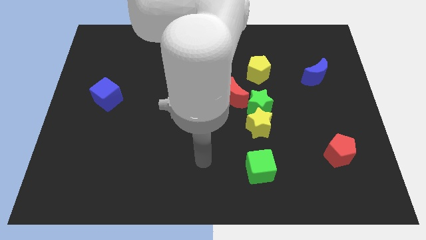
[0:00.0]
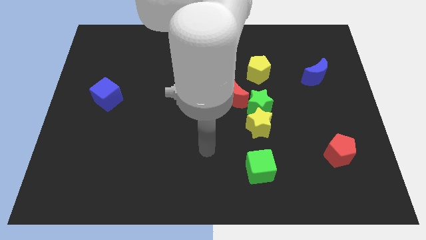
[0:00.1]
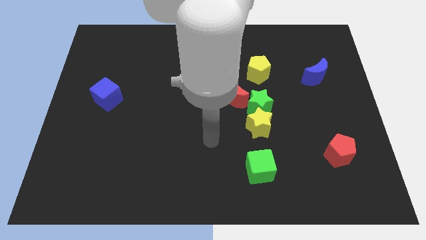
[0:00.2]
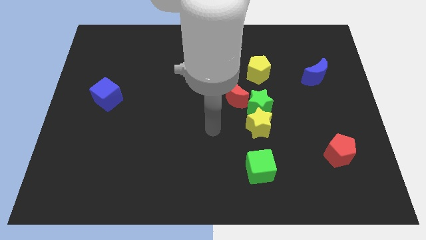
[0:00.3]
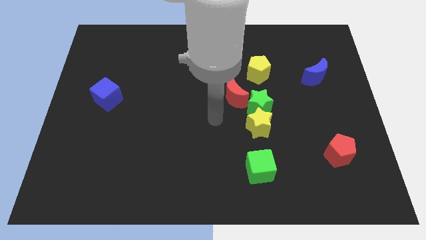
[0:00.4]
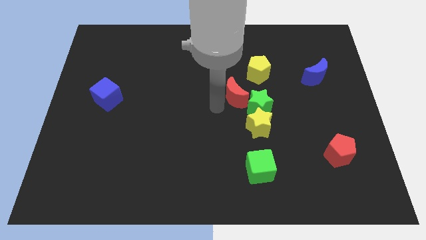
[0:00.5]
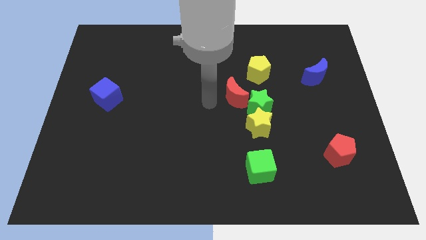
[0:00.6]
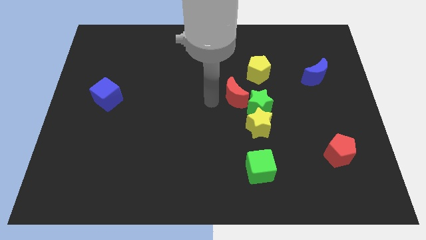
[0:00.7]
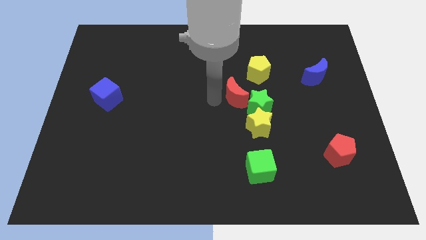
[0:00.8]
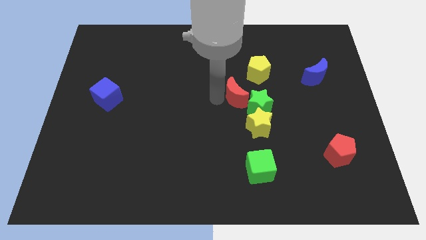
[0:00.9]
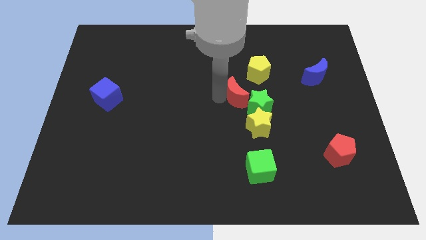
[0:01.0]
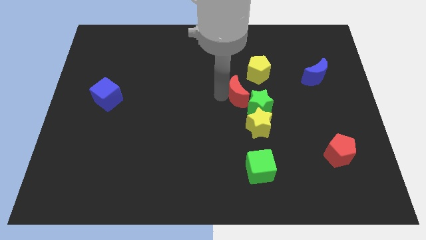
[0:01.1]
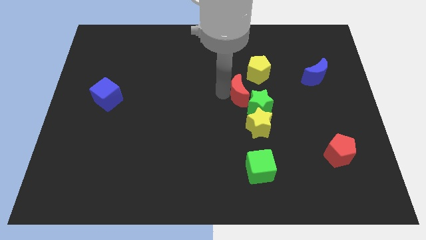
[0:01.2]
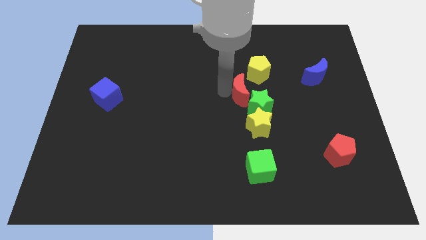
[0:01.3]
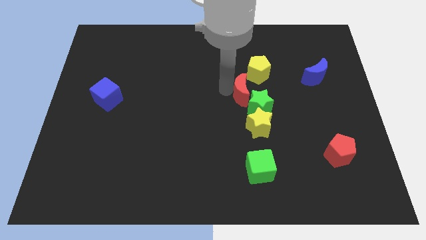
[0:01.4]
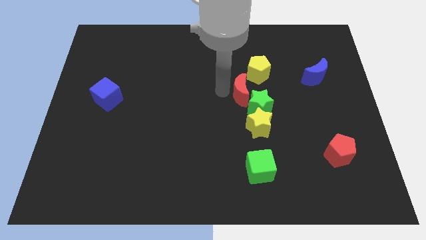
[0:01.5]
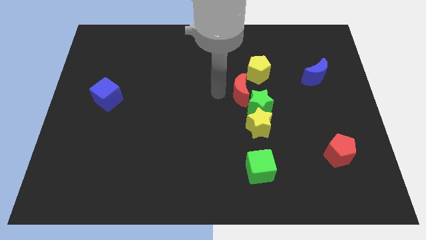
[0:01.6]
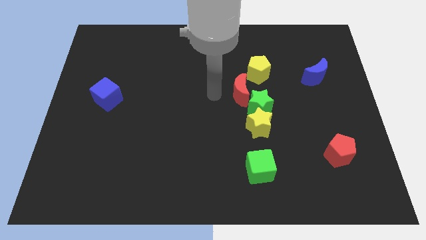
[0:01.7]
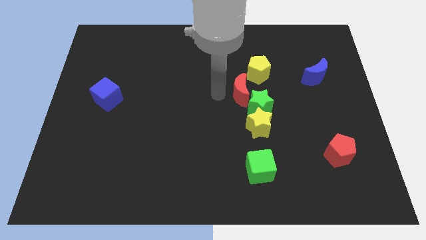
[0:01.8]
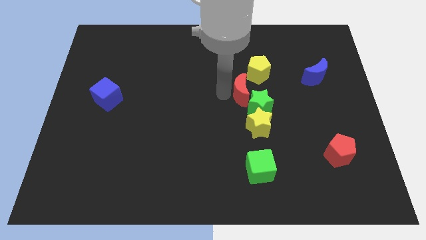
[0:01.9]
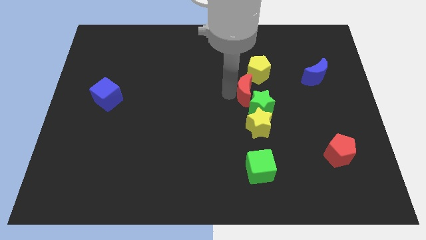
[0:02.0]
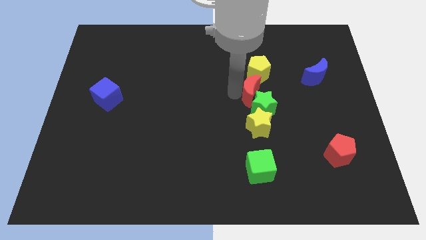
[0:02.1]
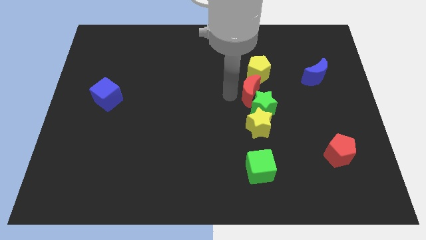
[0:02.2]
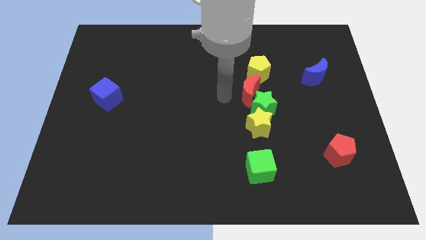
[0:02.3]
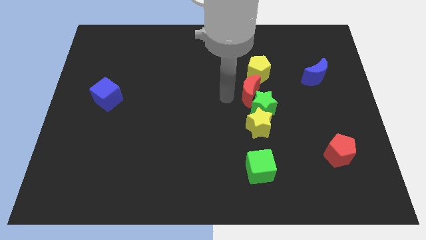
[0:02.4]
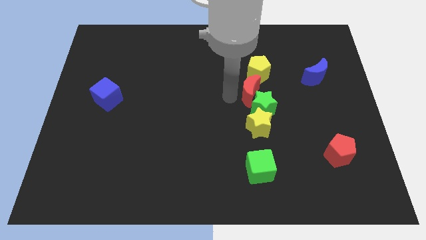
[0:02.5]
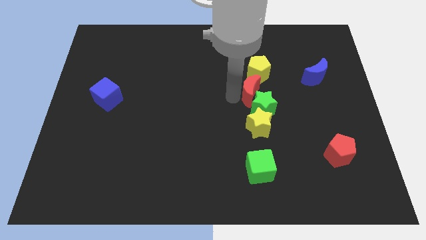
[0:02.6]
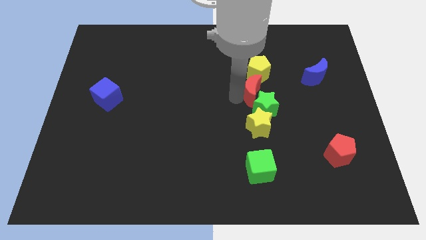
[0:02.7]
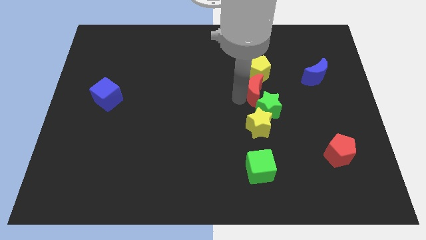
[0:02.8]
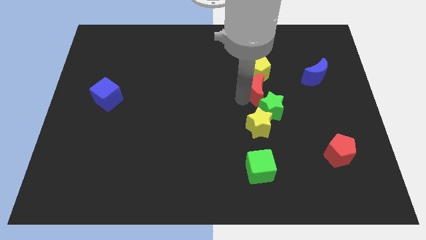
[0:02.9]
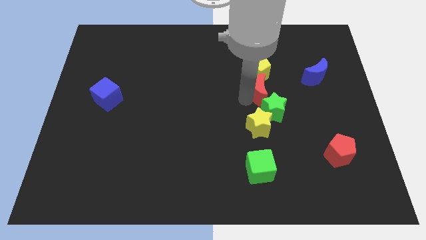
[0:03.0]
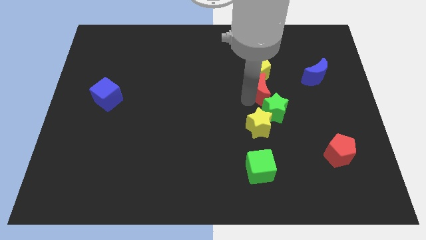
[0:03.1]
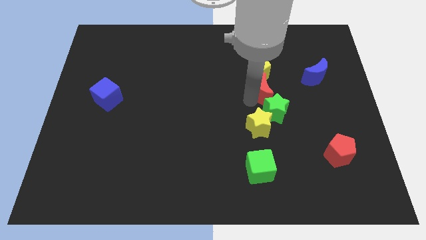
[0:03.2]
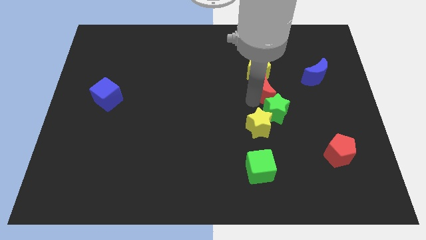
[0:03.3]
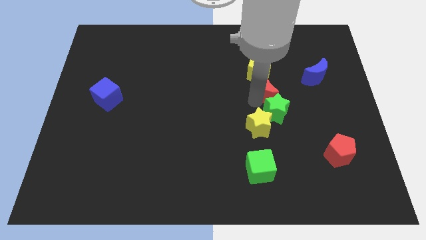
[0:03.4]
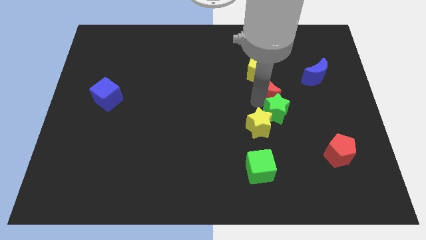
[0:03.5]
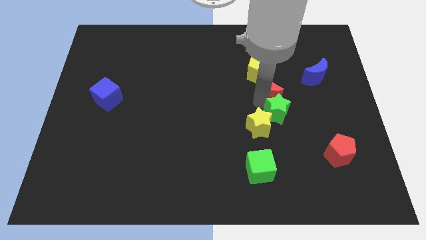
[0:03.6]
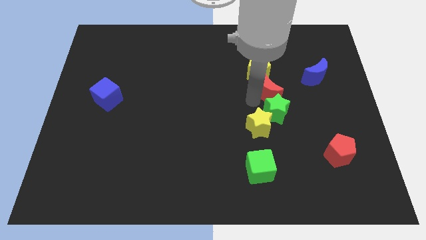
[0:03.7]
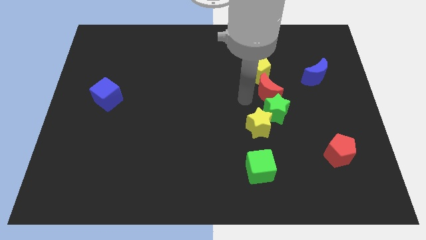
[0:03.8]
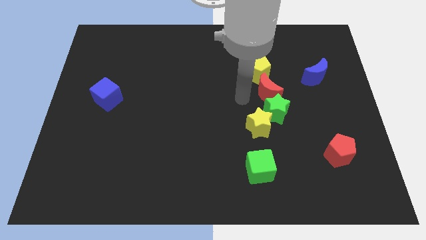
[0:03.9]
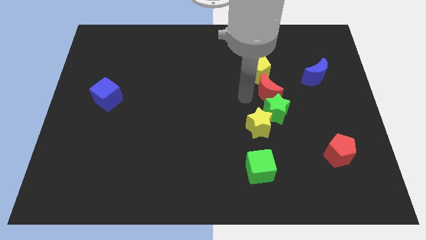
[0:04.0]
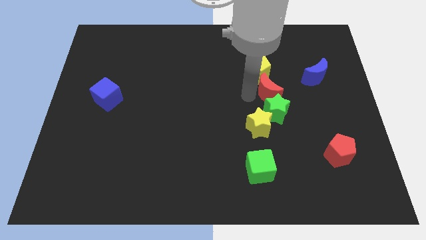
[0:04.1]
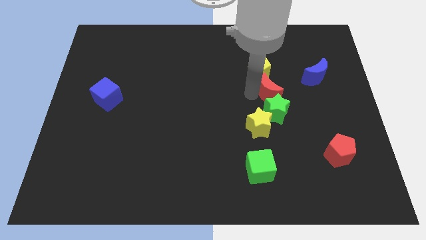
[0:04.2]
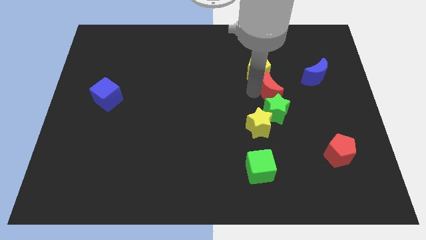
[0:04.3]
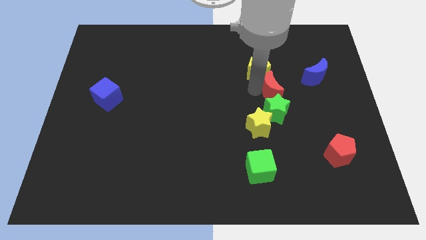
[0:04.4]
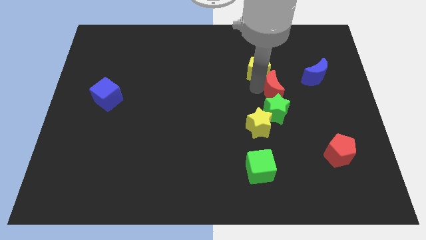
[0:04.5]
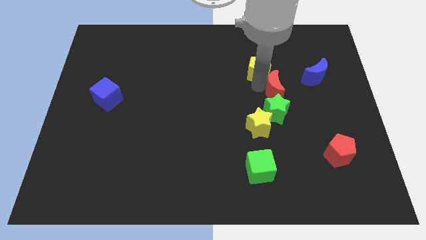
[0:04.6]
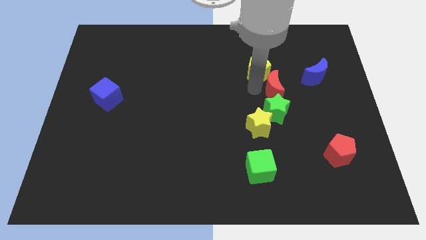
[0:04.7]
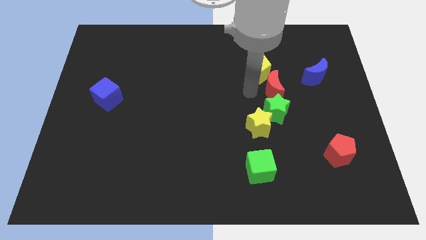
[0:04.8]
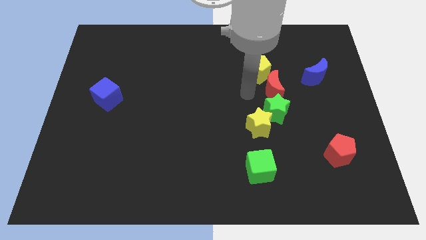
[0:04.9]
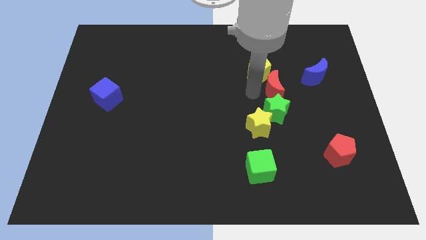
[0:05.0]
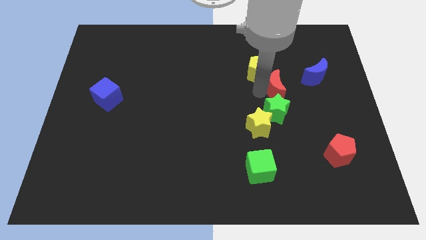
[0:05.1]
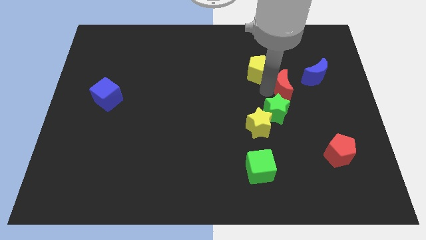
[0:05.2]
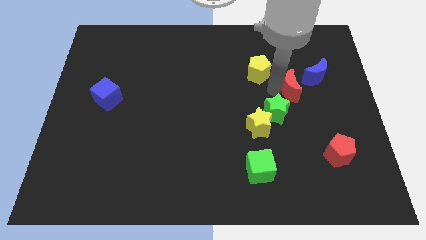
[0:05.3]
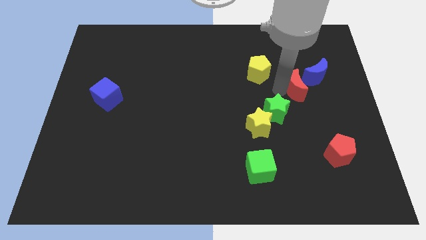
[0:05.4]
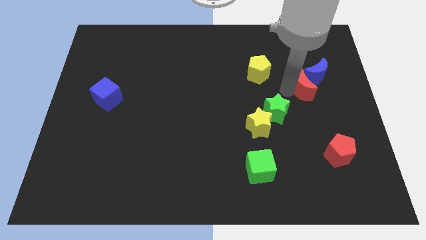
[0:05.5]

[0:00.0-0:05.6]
move the red moon close to the blue moon

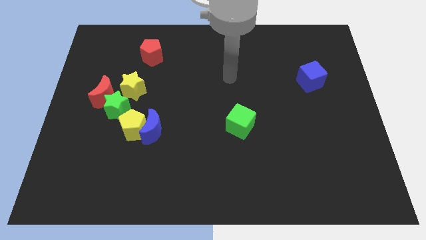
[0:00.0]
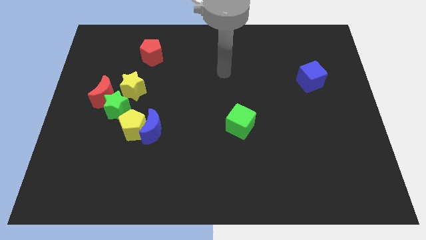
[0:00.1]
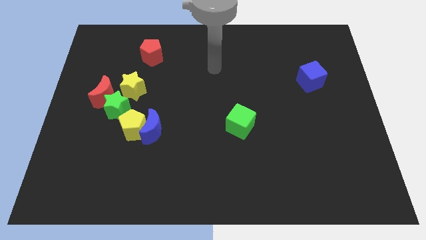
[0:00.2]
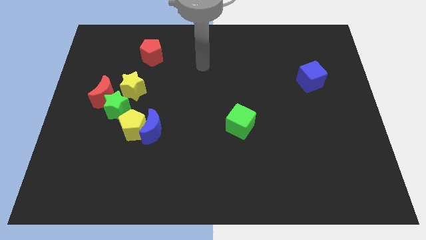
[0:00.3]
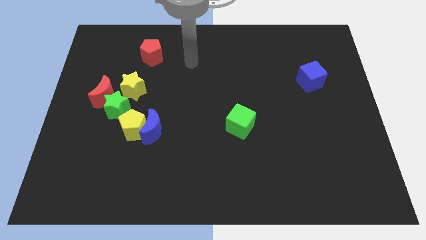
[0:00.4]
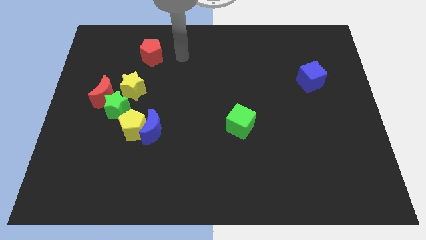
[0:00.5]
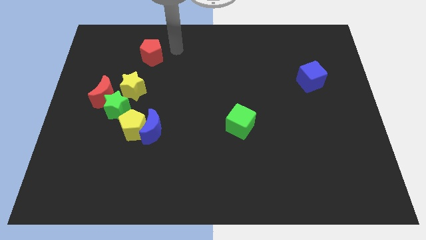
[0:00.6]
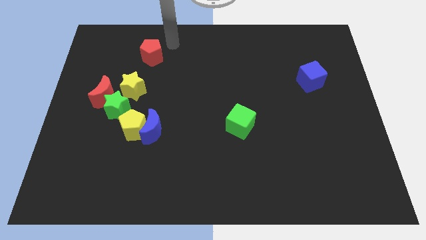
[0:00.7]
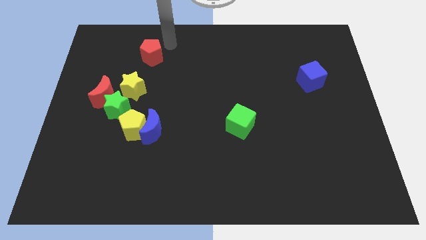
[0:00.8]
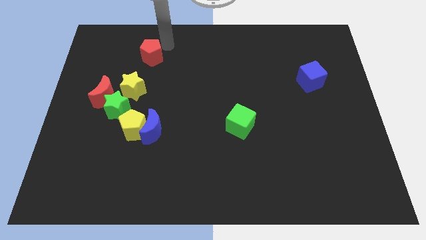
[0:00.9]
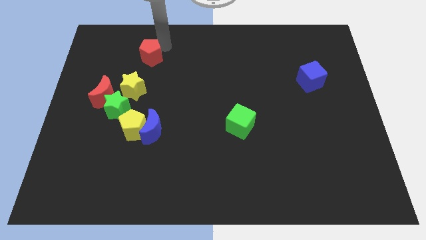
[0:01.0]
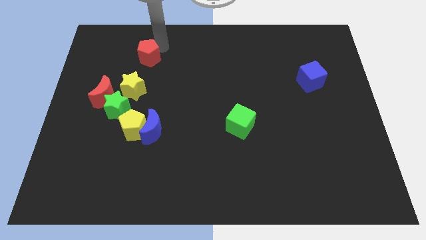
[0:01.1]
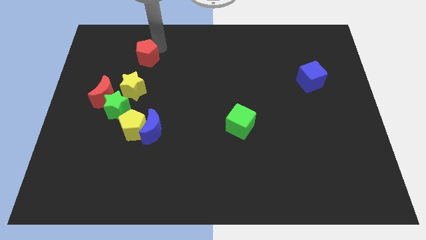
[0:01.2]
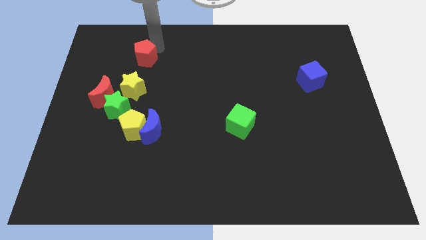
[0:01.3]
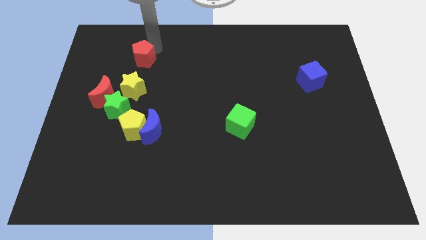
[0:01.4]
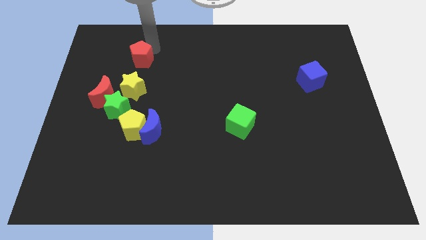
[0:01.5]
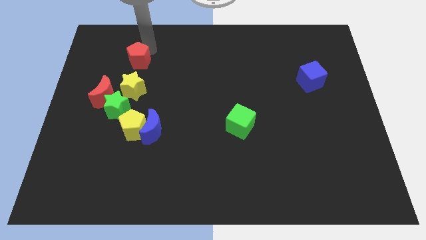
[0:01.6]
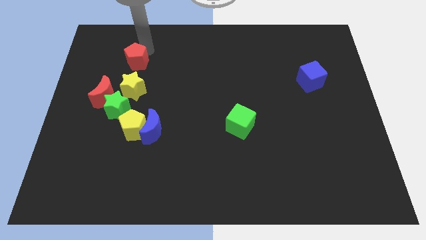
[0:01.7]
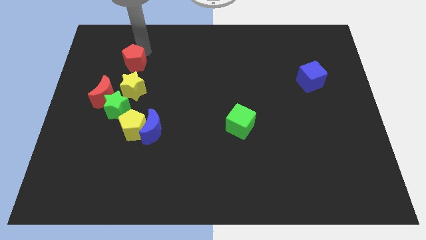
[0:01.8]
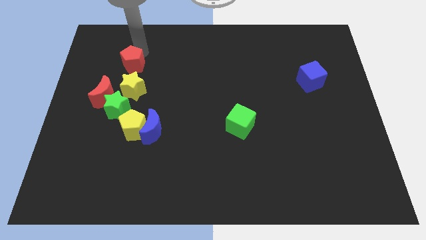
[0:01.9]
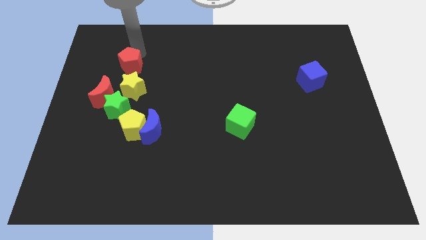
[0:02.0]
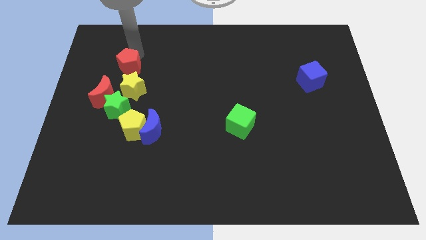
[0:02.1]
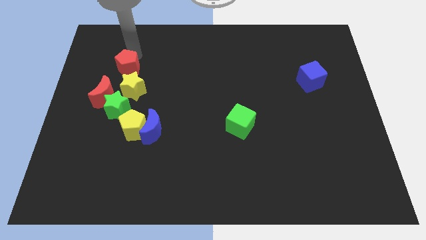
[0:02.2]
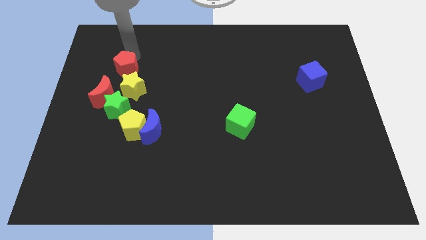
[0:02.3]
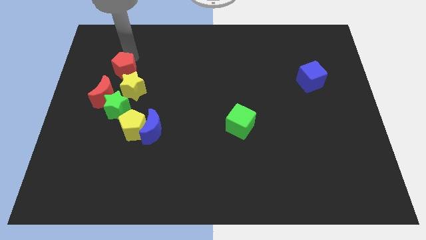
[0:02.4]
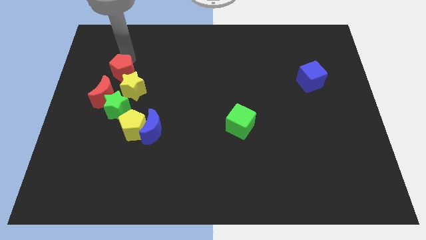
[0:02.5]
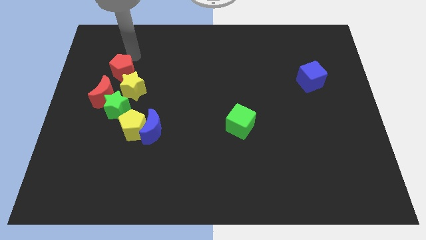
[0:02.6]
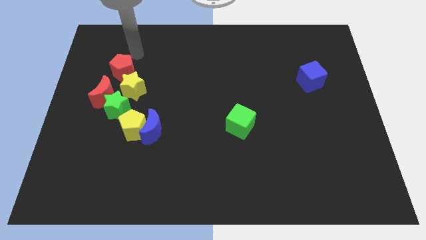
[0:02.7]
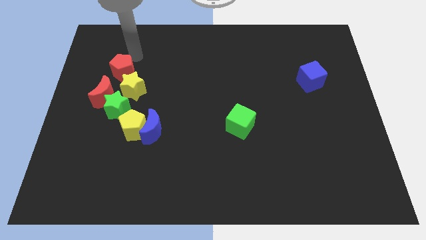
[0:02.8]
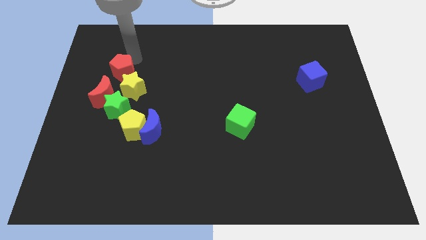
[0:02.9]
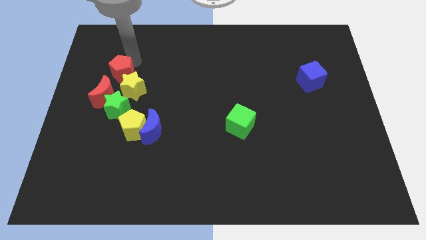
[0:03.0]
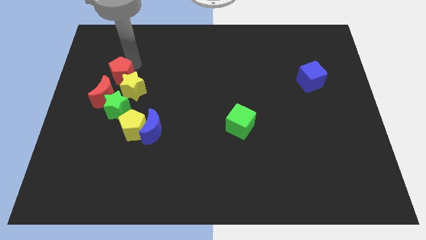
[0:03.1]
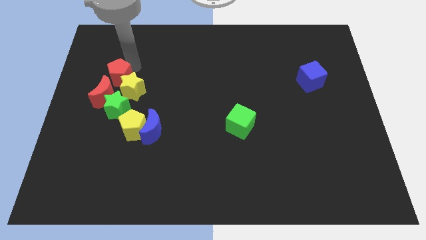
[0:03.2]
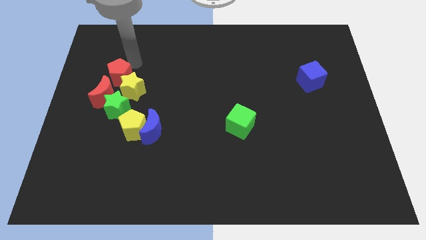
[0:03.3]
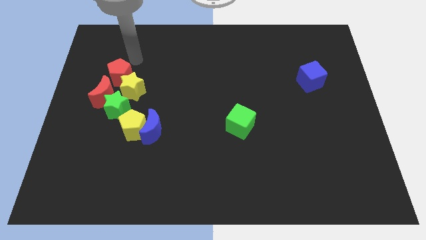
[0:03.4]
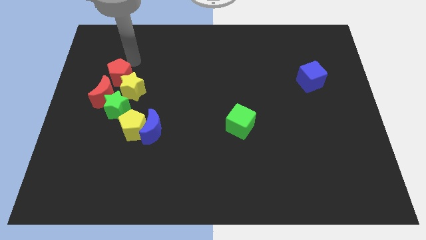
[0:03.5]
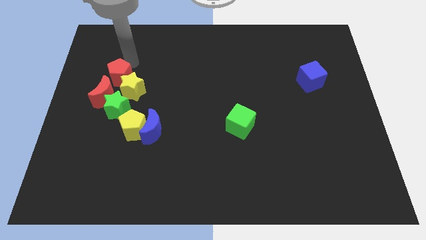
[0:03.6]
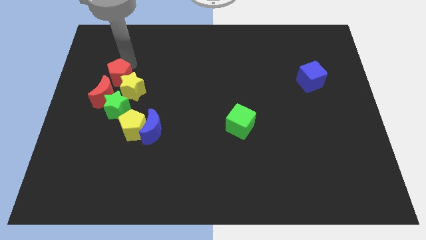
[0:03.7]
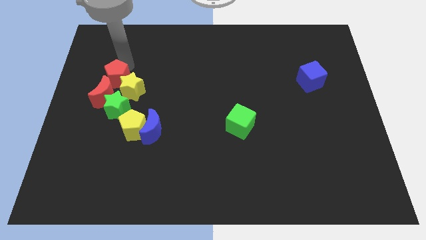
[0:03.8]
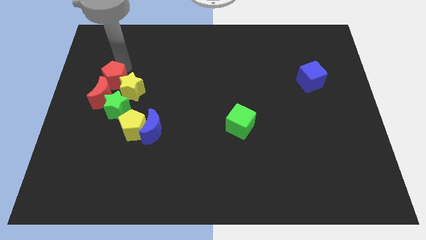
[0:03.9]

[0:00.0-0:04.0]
move the red pentagon towards the red moon
